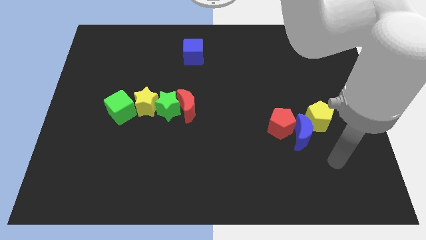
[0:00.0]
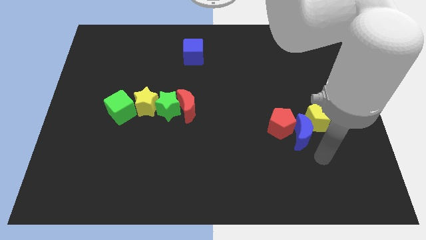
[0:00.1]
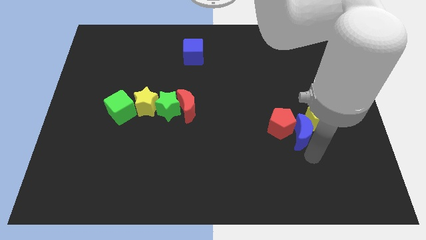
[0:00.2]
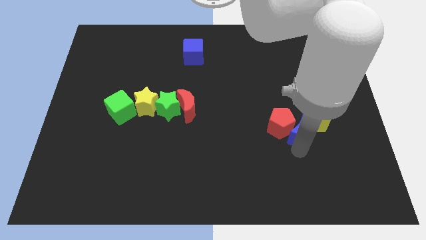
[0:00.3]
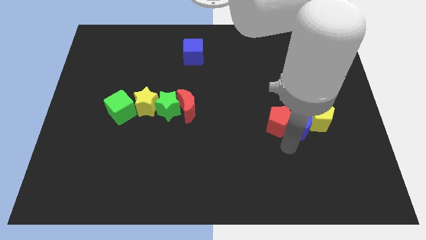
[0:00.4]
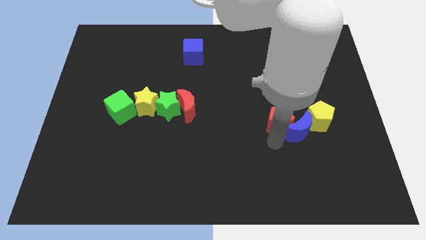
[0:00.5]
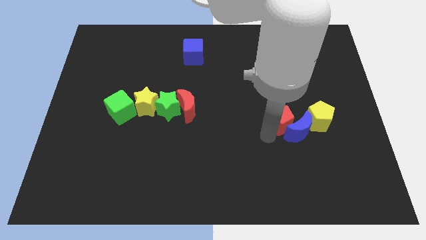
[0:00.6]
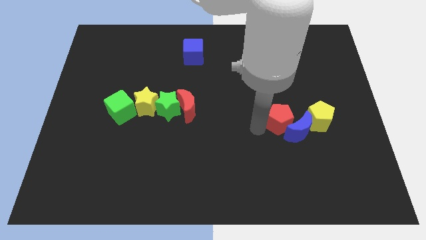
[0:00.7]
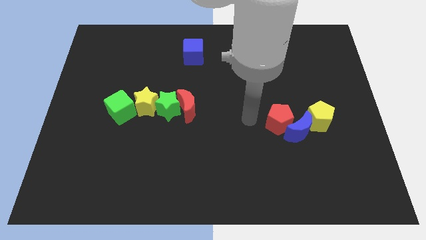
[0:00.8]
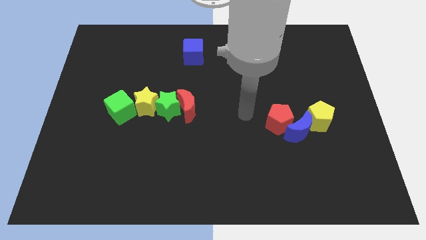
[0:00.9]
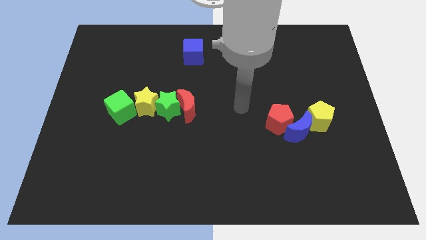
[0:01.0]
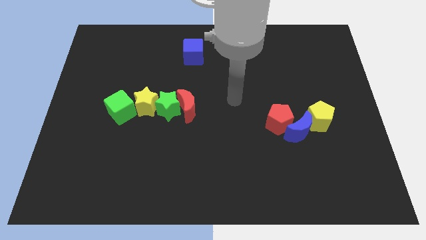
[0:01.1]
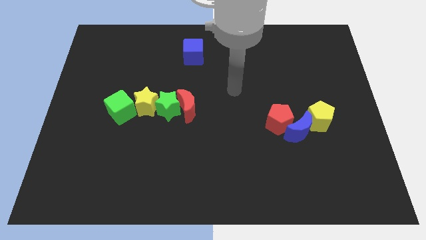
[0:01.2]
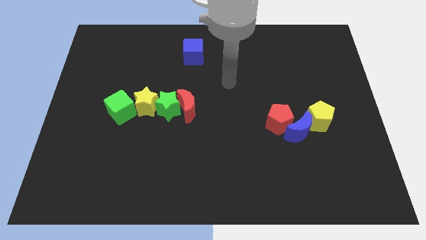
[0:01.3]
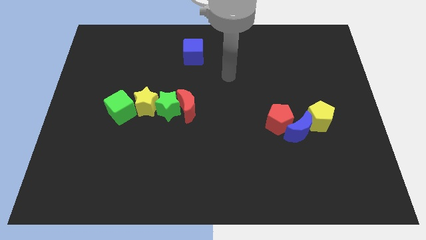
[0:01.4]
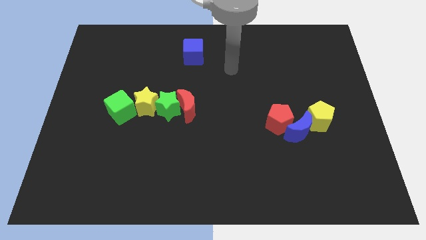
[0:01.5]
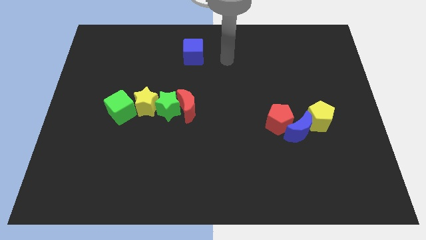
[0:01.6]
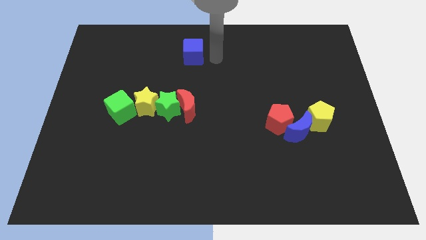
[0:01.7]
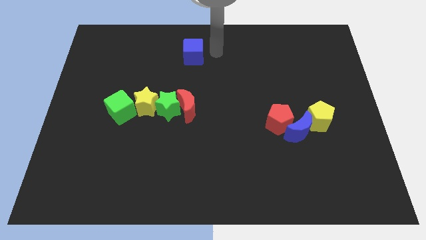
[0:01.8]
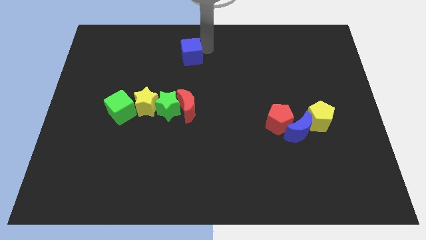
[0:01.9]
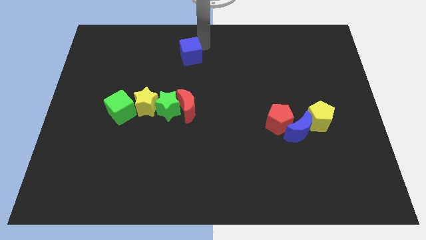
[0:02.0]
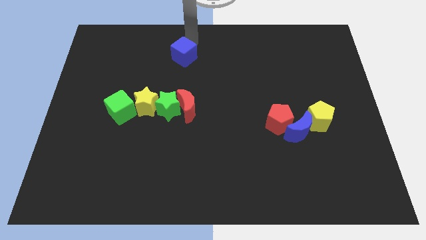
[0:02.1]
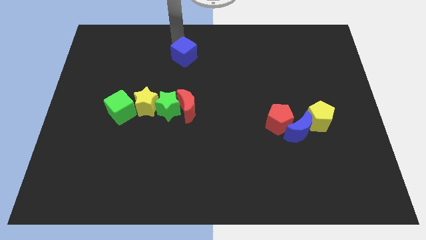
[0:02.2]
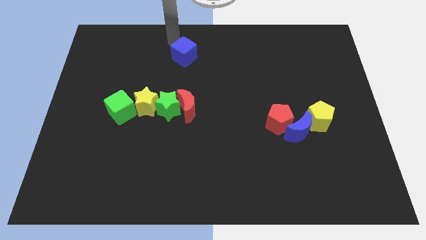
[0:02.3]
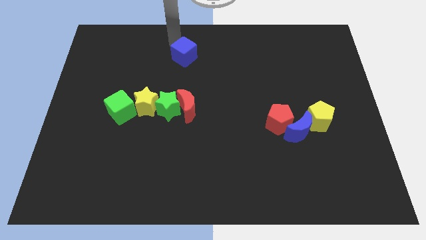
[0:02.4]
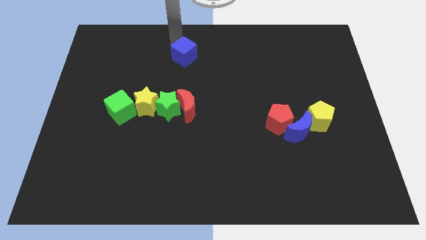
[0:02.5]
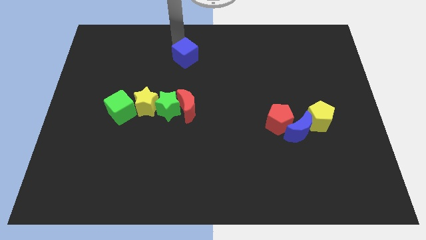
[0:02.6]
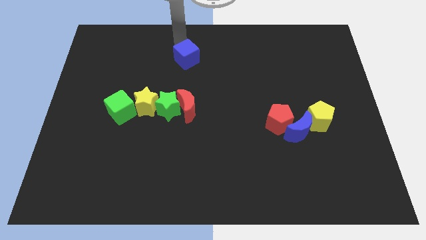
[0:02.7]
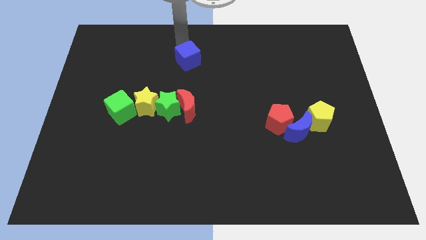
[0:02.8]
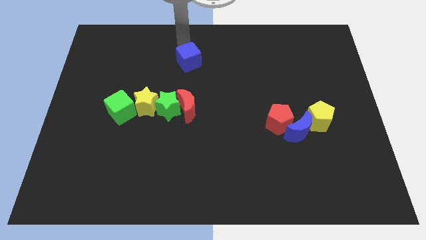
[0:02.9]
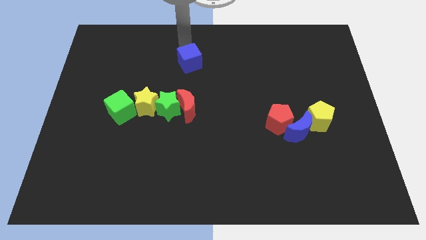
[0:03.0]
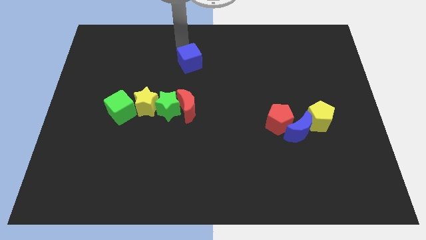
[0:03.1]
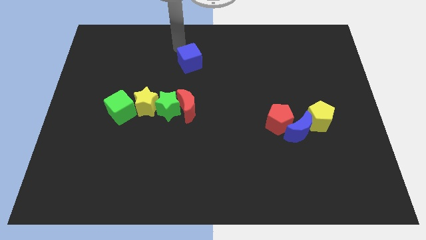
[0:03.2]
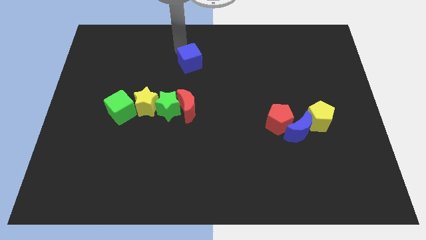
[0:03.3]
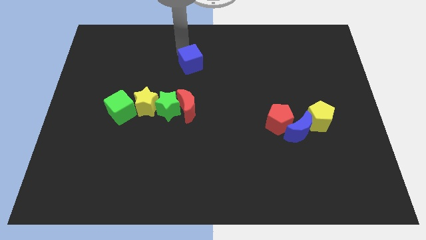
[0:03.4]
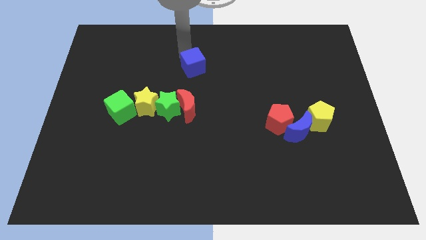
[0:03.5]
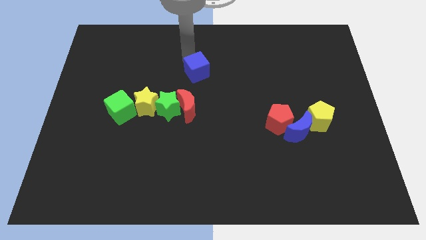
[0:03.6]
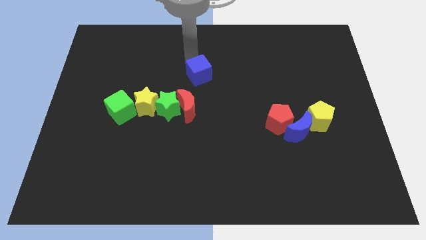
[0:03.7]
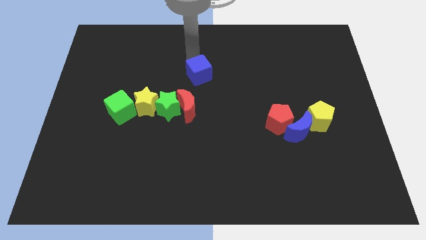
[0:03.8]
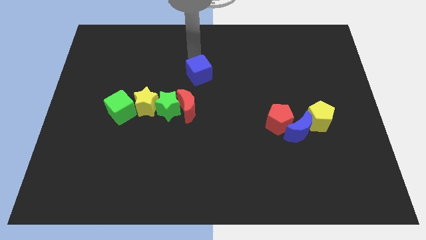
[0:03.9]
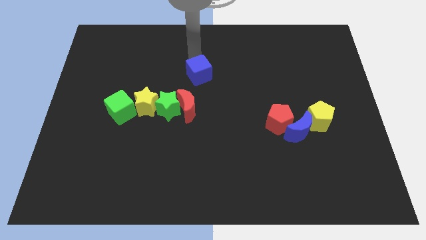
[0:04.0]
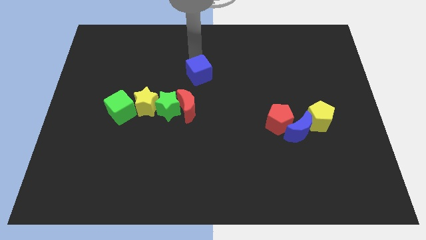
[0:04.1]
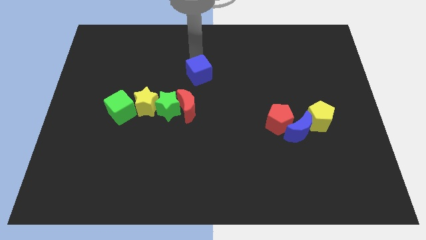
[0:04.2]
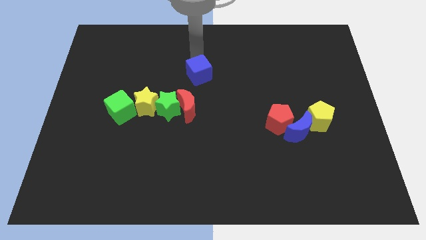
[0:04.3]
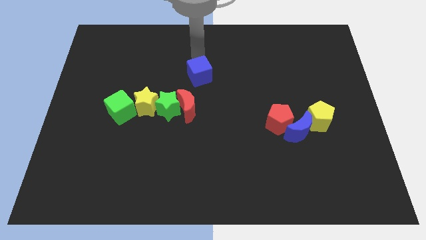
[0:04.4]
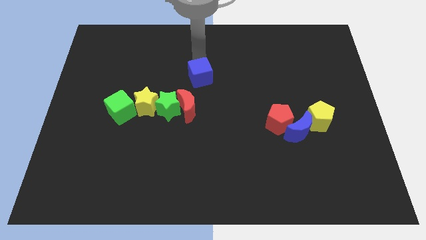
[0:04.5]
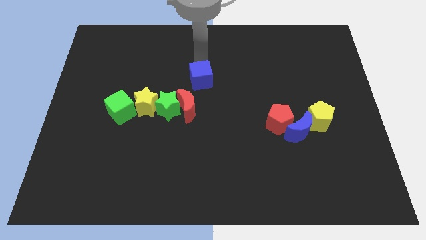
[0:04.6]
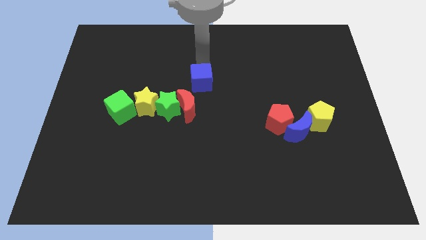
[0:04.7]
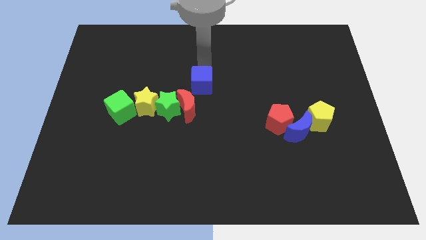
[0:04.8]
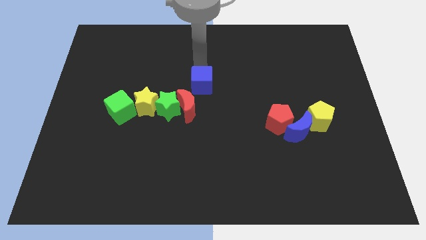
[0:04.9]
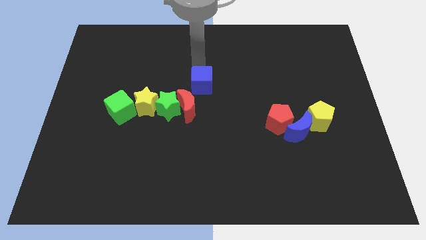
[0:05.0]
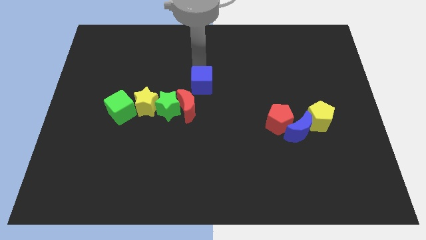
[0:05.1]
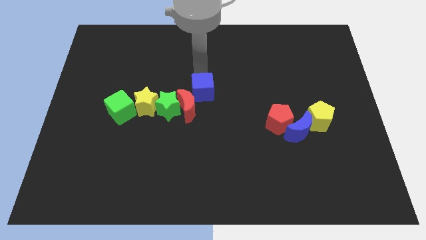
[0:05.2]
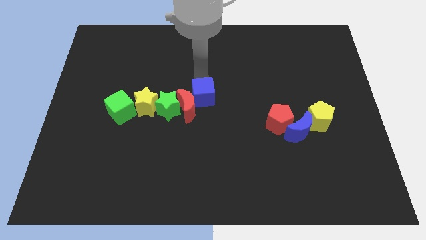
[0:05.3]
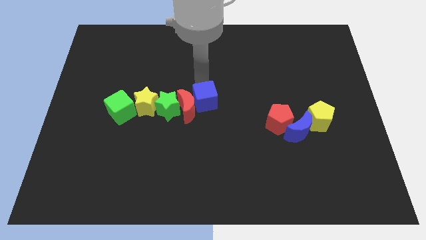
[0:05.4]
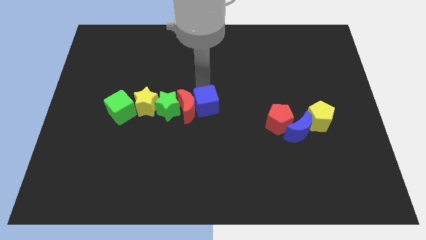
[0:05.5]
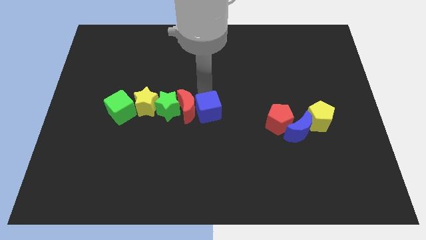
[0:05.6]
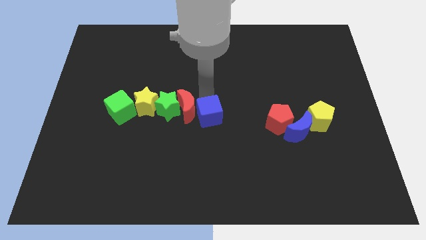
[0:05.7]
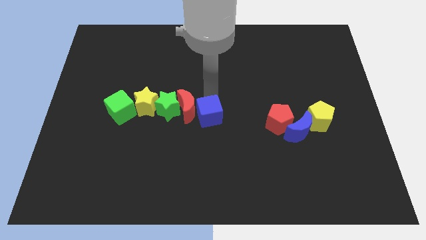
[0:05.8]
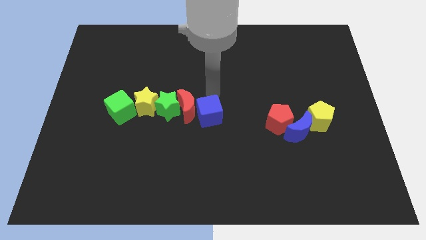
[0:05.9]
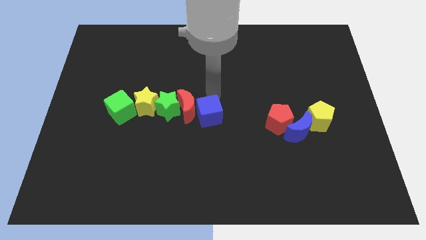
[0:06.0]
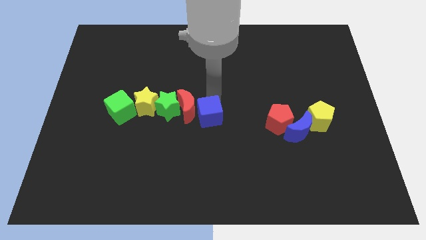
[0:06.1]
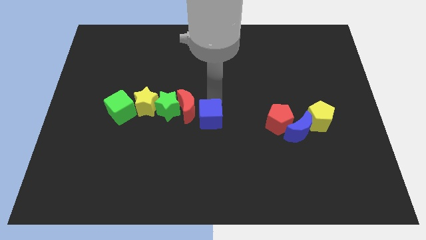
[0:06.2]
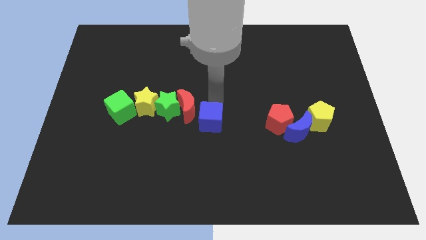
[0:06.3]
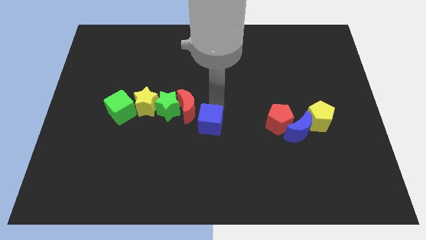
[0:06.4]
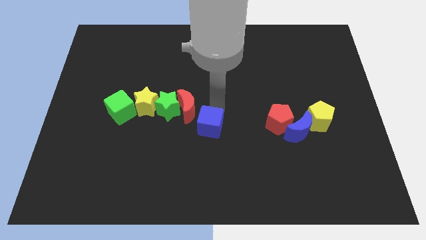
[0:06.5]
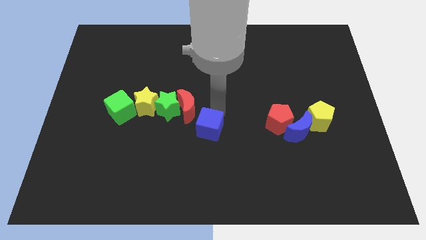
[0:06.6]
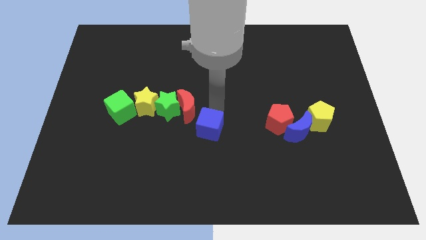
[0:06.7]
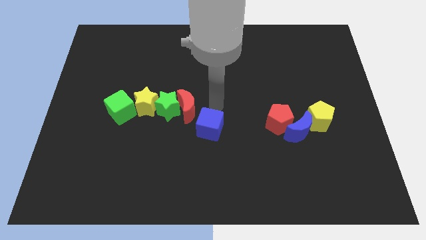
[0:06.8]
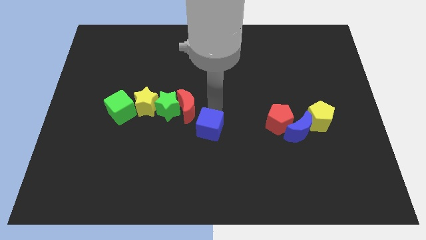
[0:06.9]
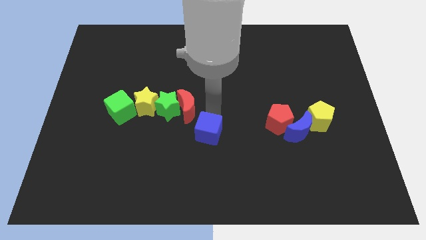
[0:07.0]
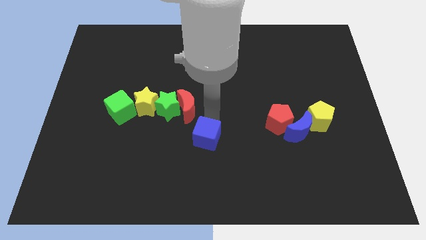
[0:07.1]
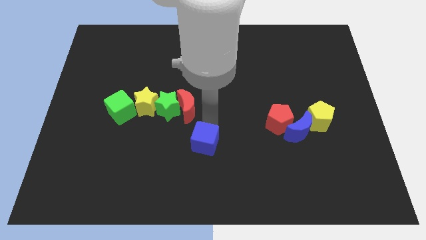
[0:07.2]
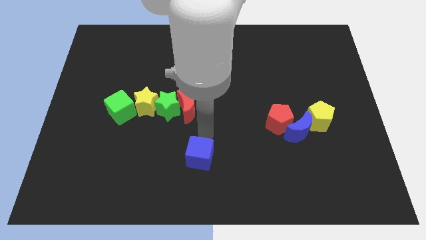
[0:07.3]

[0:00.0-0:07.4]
slide the blue cube to the bottom
